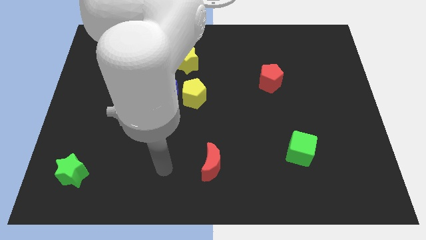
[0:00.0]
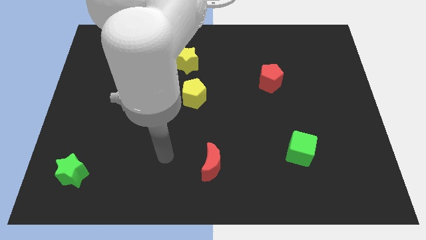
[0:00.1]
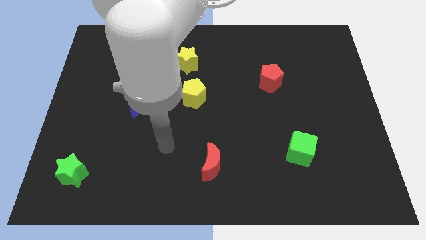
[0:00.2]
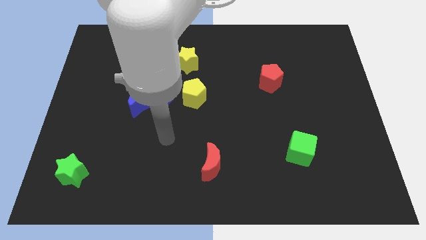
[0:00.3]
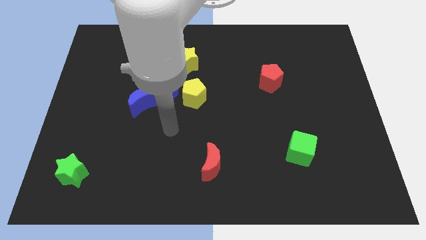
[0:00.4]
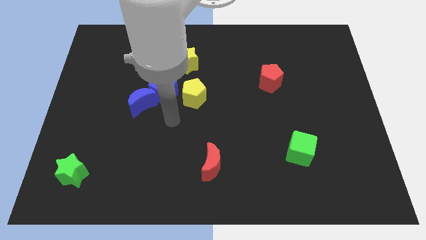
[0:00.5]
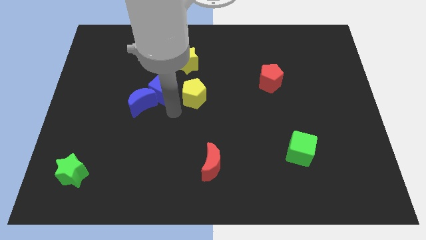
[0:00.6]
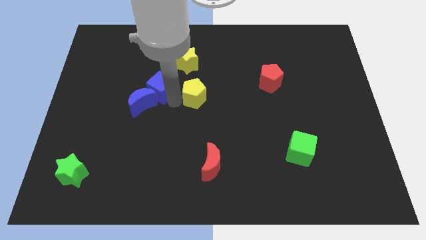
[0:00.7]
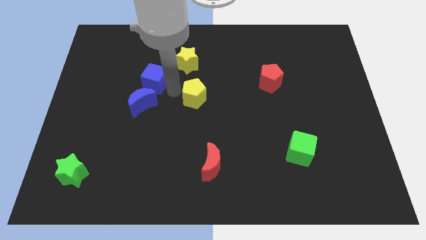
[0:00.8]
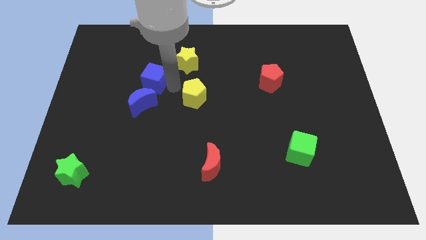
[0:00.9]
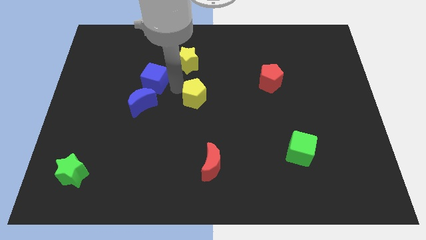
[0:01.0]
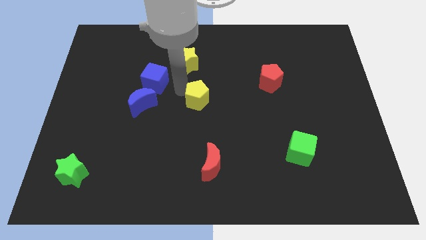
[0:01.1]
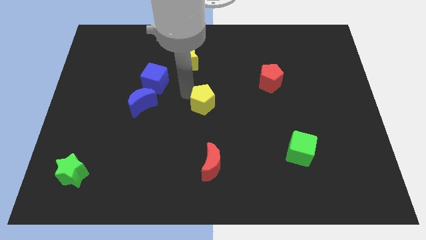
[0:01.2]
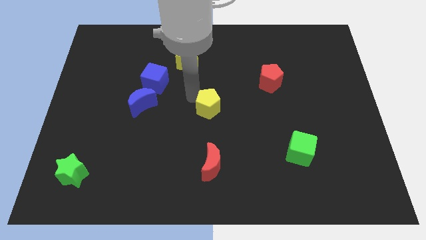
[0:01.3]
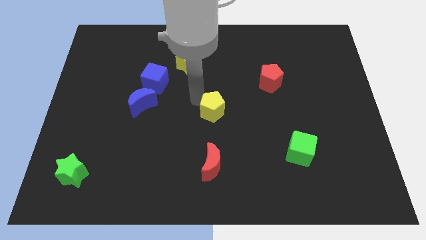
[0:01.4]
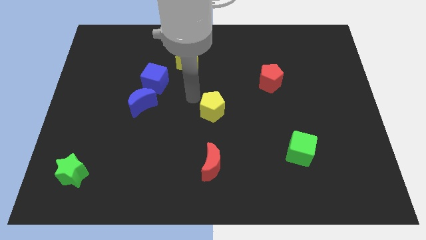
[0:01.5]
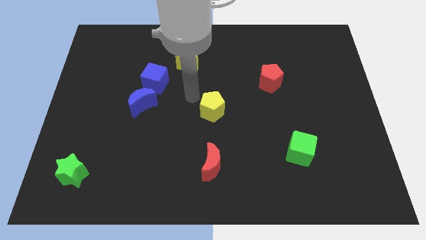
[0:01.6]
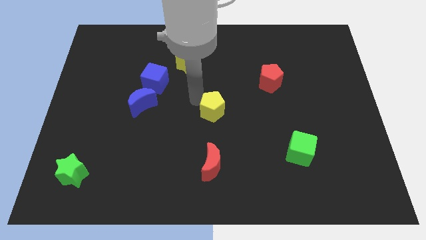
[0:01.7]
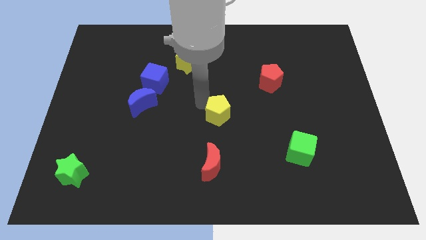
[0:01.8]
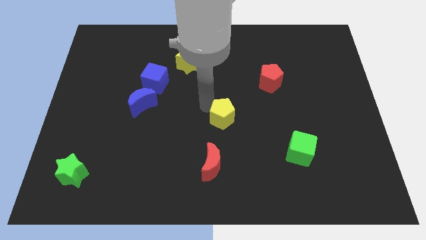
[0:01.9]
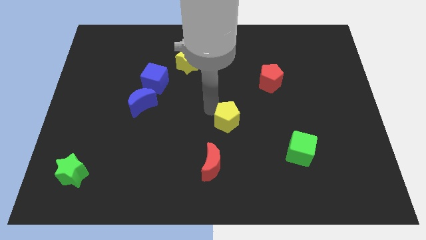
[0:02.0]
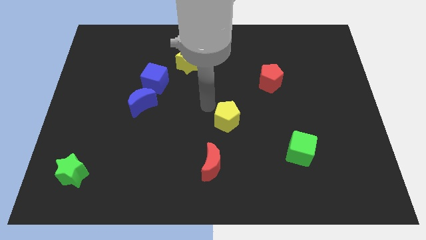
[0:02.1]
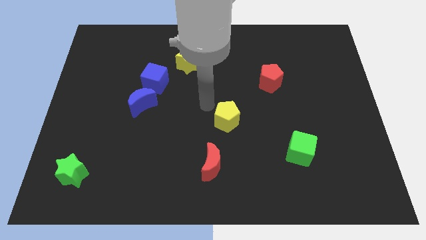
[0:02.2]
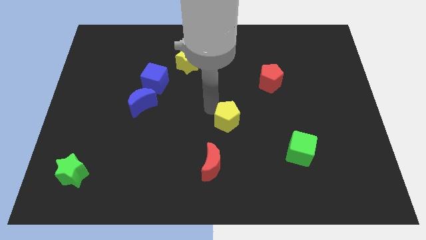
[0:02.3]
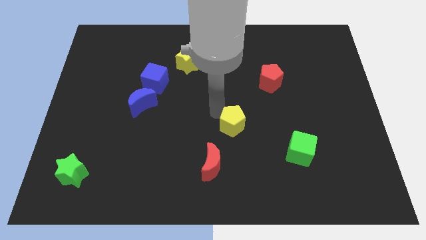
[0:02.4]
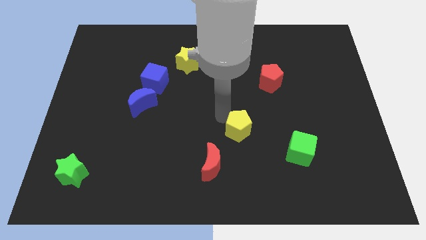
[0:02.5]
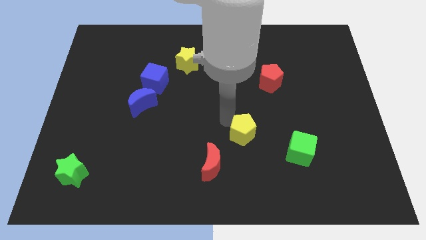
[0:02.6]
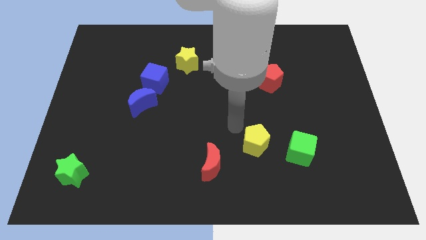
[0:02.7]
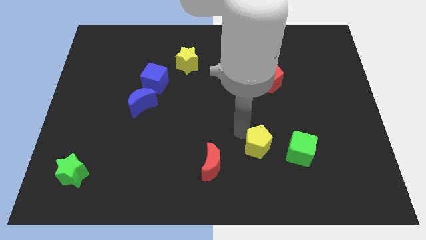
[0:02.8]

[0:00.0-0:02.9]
move the yellow pentagon down and to the right

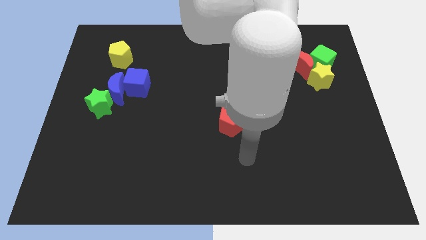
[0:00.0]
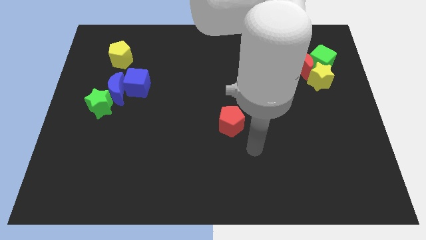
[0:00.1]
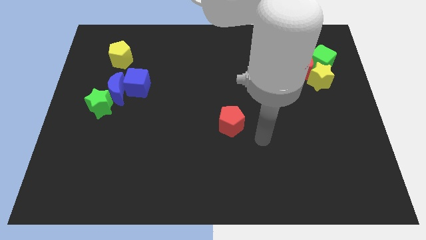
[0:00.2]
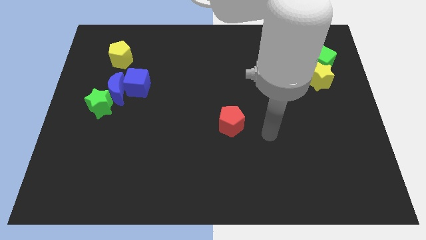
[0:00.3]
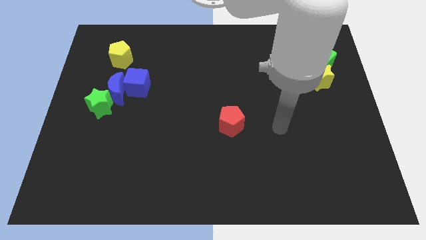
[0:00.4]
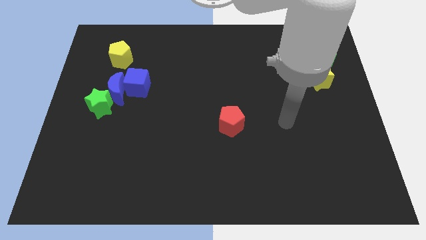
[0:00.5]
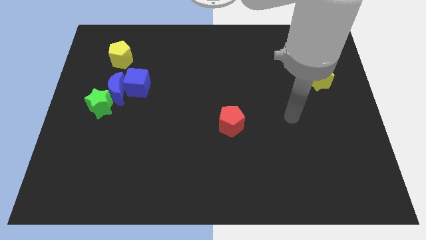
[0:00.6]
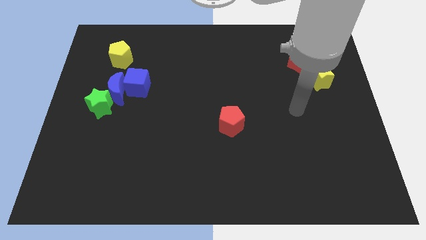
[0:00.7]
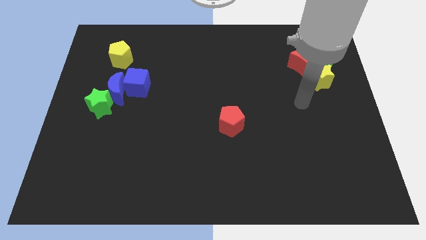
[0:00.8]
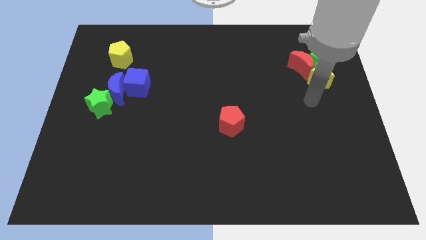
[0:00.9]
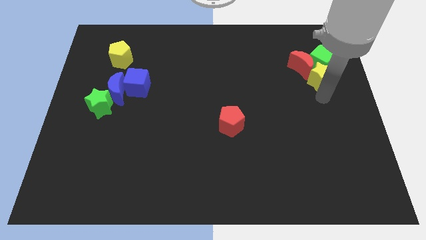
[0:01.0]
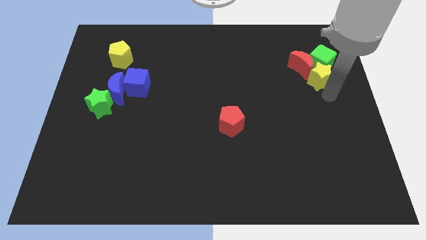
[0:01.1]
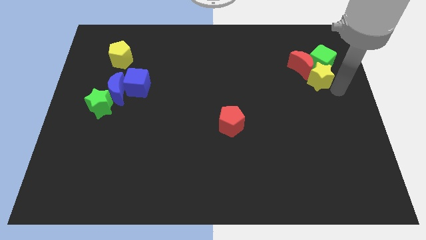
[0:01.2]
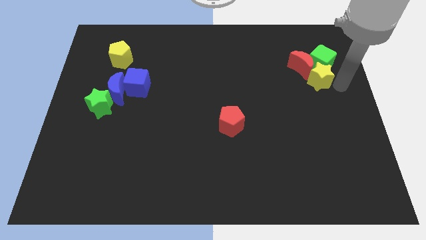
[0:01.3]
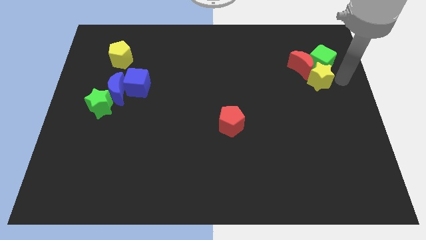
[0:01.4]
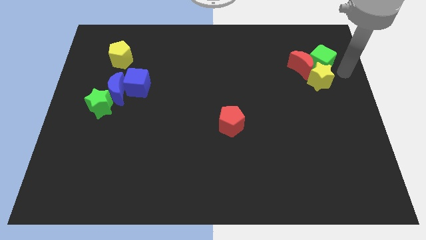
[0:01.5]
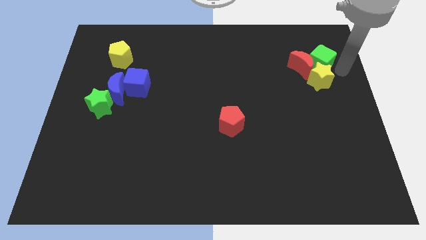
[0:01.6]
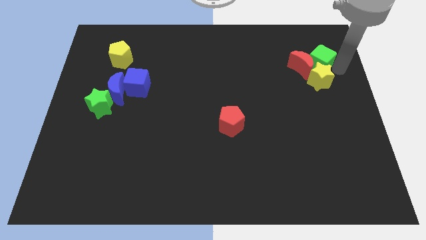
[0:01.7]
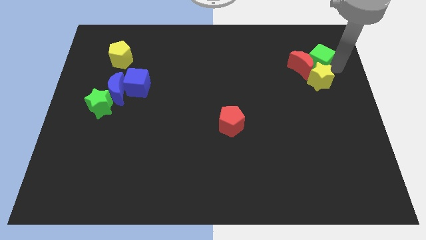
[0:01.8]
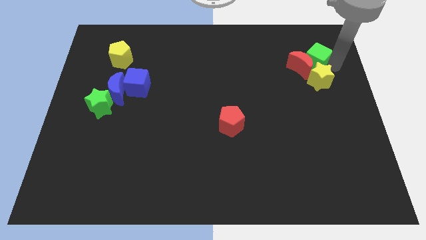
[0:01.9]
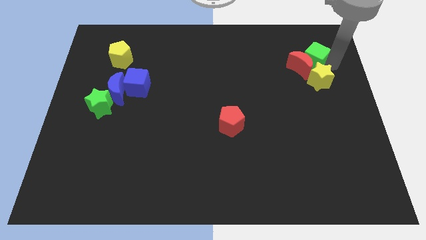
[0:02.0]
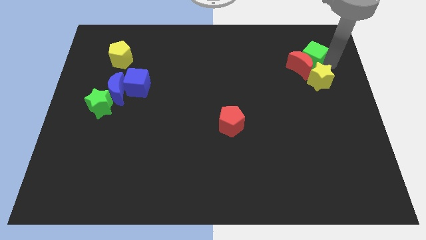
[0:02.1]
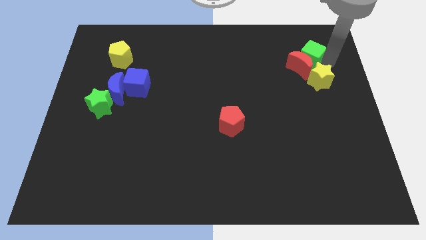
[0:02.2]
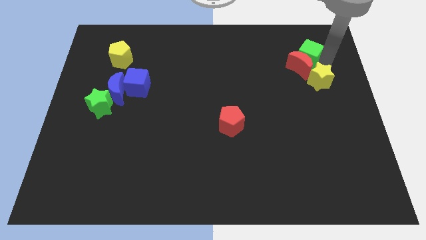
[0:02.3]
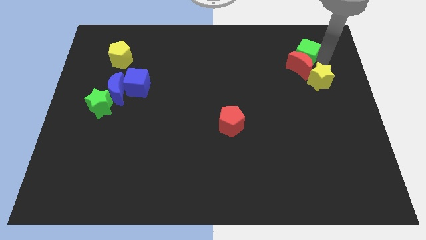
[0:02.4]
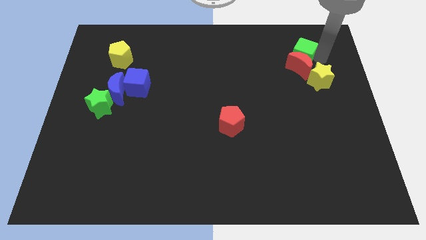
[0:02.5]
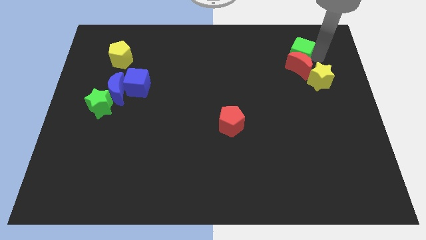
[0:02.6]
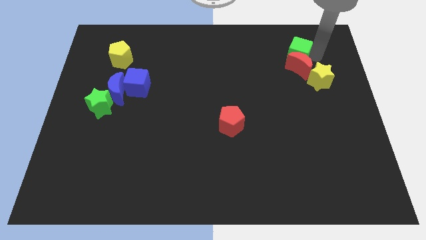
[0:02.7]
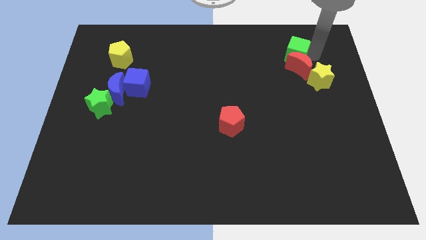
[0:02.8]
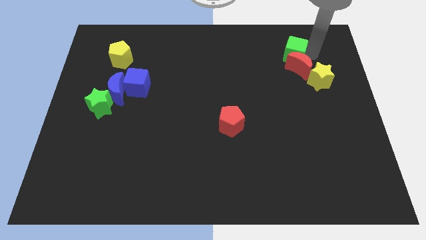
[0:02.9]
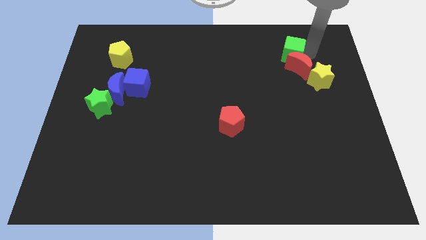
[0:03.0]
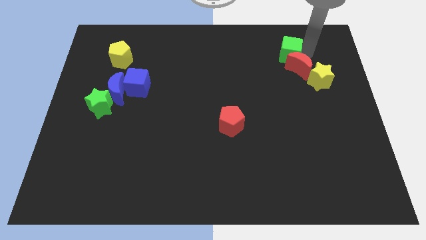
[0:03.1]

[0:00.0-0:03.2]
slide the green cube a little left

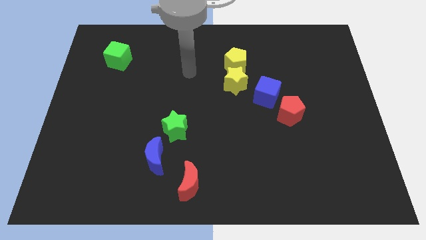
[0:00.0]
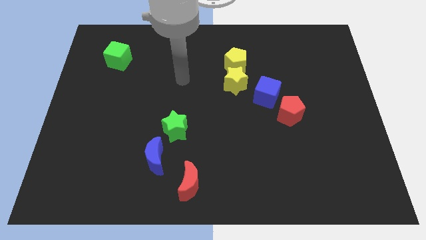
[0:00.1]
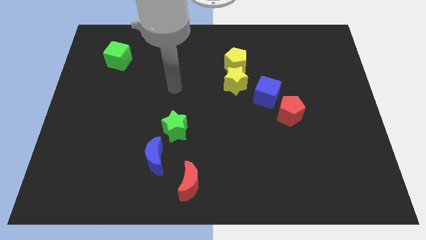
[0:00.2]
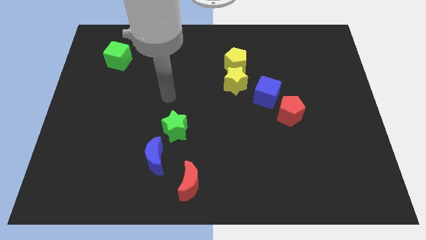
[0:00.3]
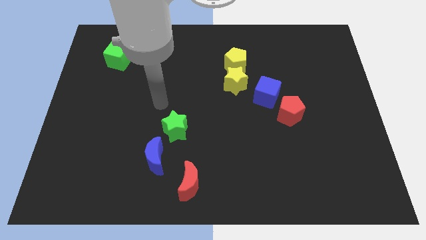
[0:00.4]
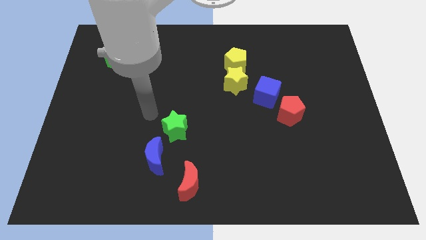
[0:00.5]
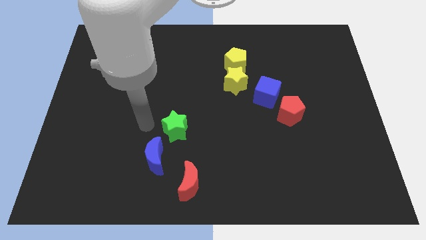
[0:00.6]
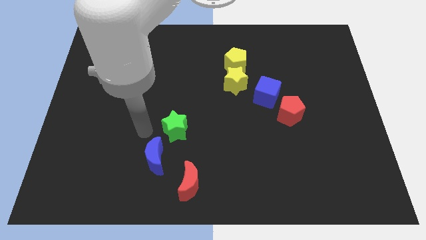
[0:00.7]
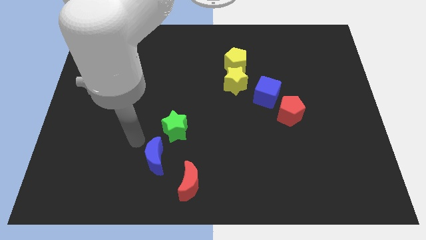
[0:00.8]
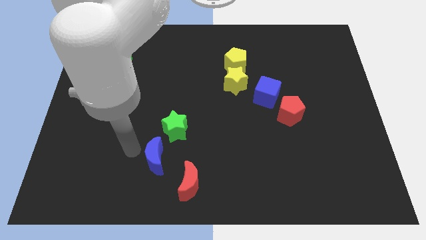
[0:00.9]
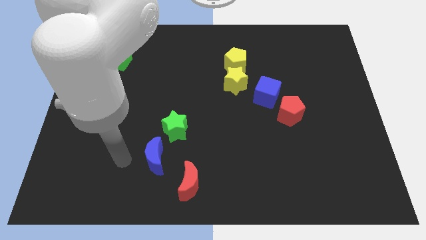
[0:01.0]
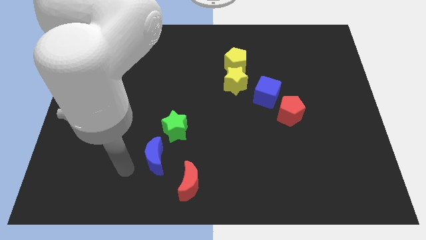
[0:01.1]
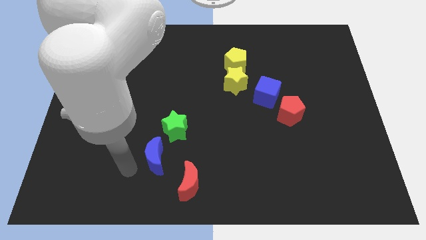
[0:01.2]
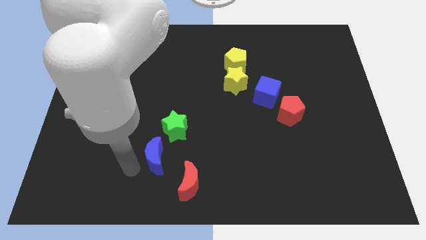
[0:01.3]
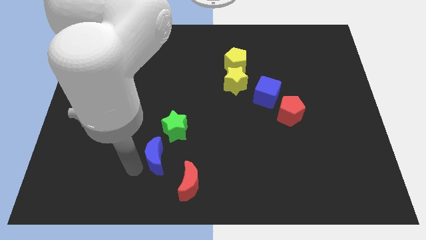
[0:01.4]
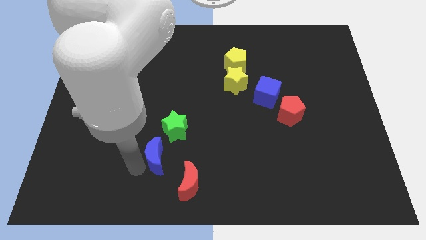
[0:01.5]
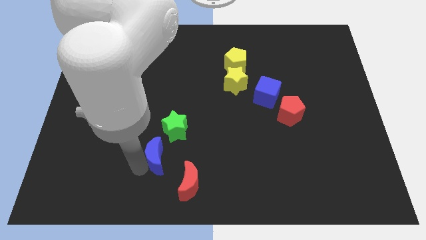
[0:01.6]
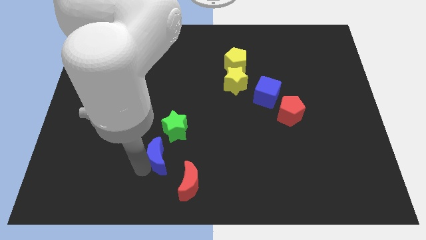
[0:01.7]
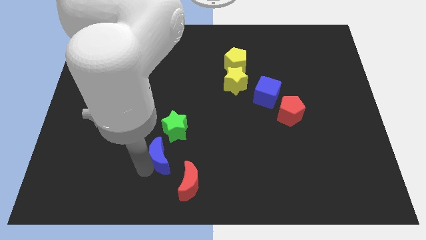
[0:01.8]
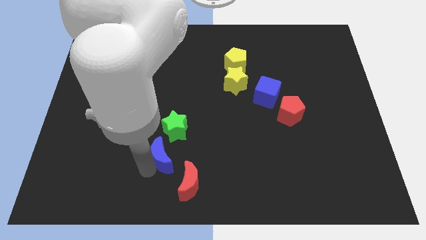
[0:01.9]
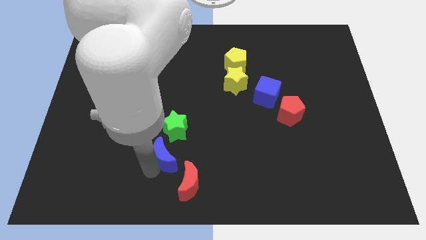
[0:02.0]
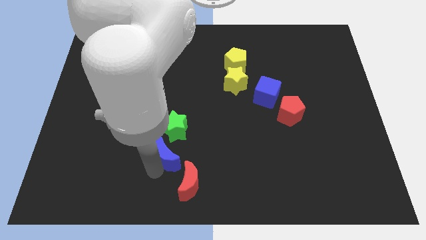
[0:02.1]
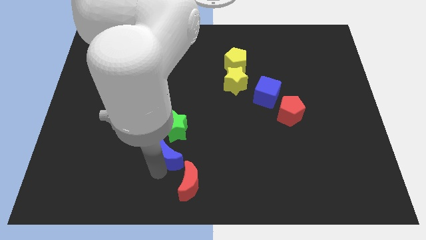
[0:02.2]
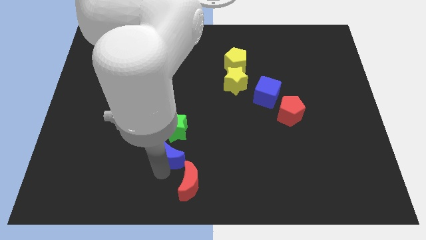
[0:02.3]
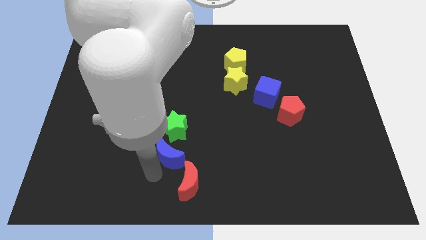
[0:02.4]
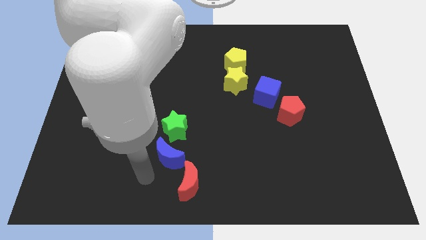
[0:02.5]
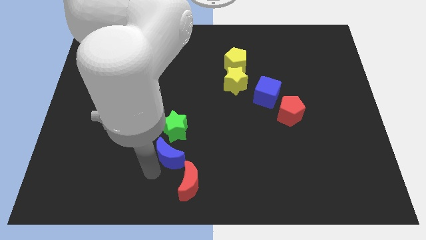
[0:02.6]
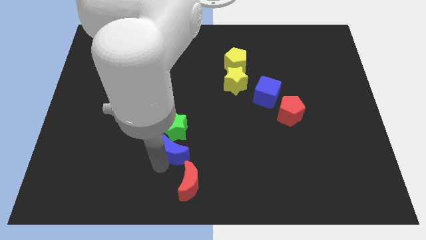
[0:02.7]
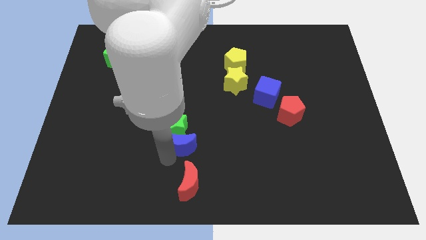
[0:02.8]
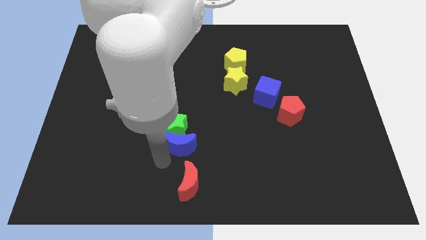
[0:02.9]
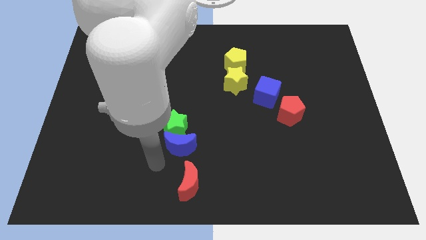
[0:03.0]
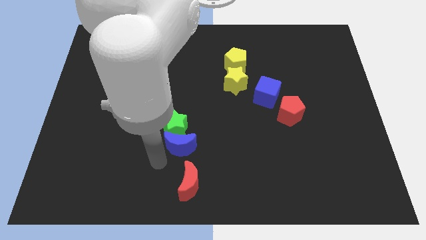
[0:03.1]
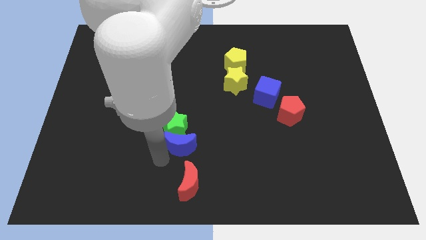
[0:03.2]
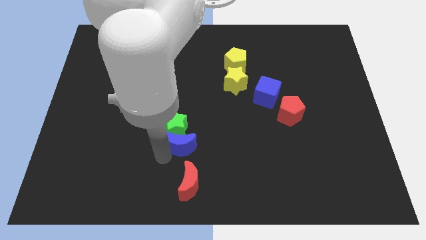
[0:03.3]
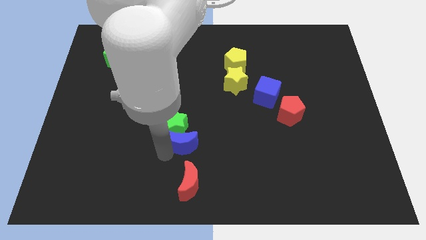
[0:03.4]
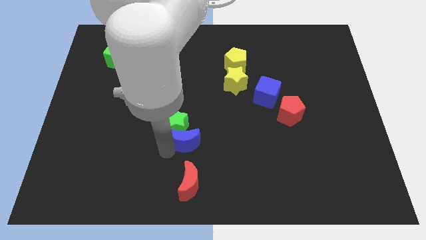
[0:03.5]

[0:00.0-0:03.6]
move the blue moon upwards and right a little bit
